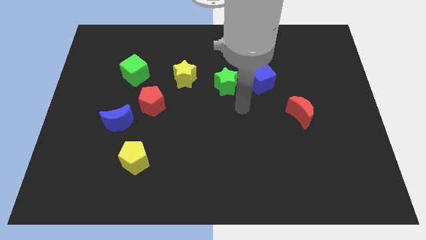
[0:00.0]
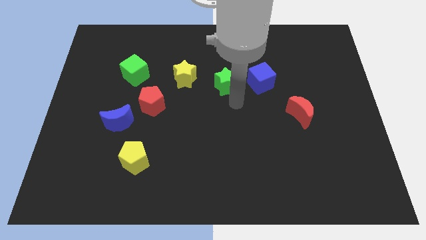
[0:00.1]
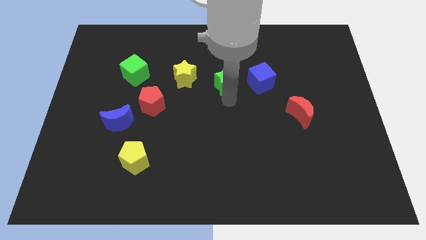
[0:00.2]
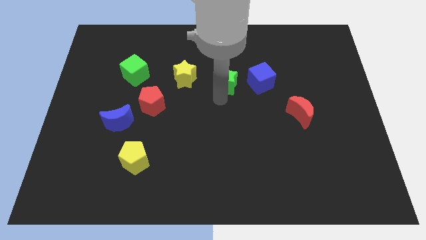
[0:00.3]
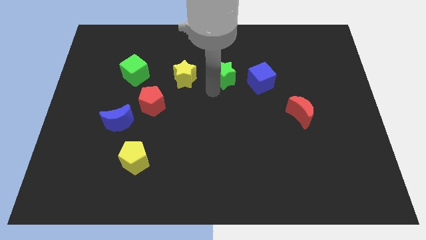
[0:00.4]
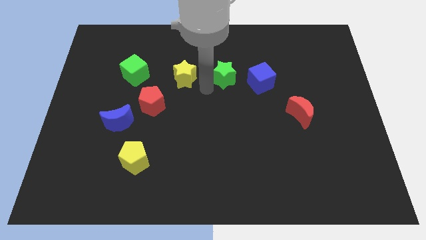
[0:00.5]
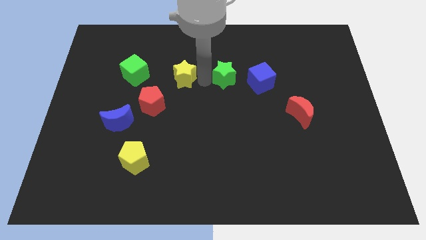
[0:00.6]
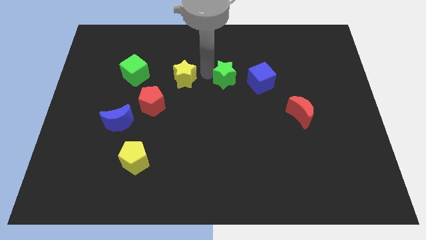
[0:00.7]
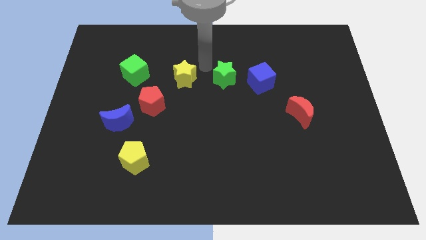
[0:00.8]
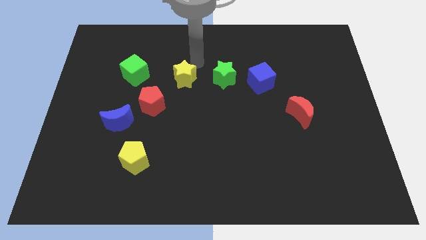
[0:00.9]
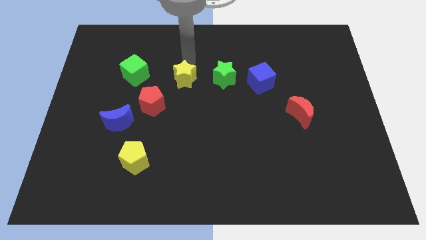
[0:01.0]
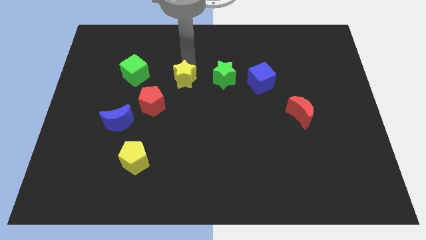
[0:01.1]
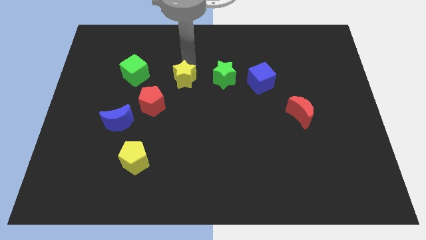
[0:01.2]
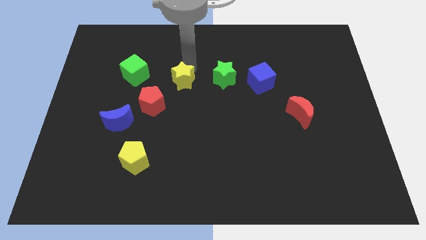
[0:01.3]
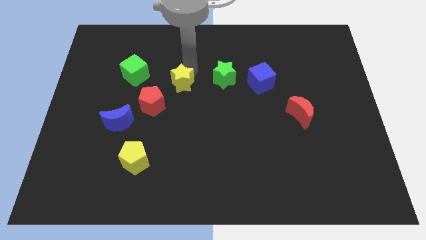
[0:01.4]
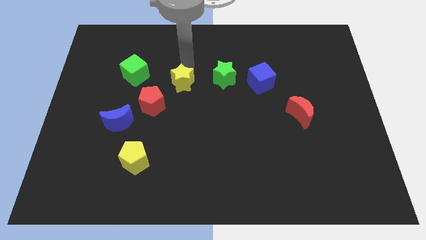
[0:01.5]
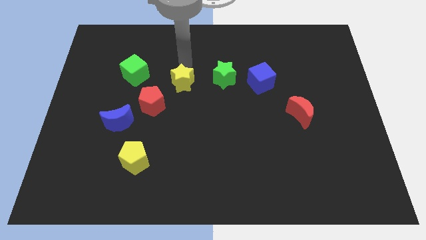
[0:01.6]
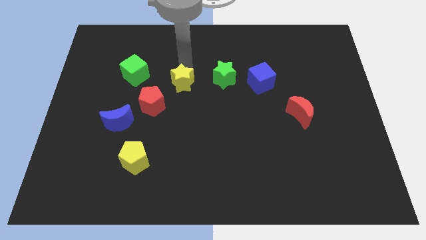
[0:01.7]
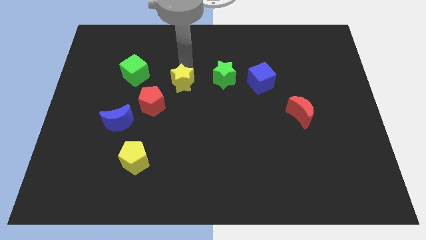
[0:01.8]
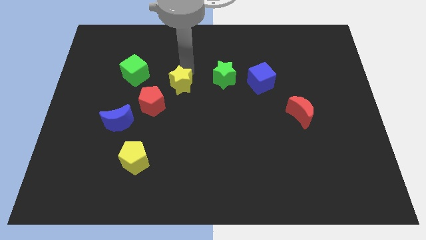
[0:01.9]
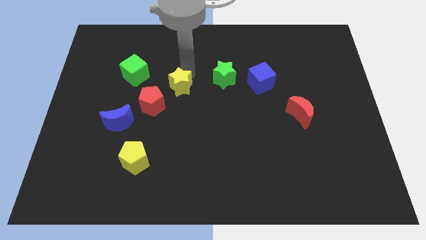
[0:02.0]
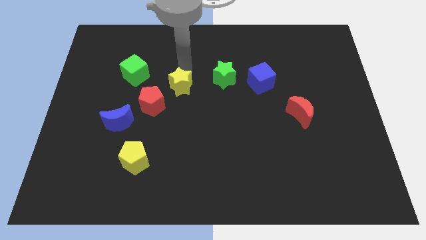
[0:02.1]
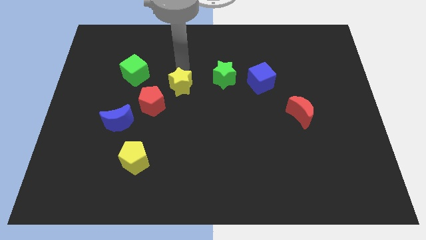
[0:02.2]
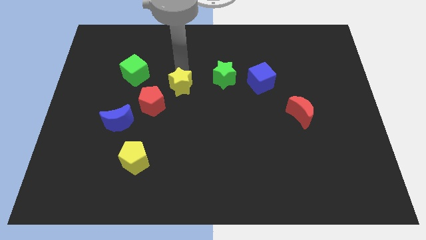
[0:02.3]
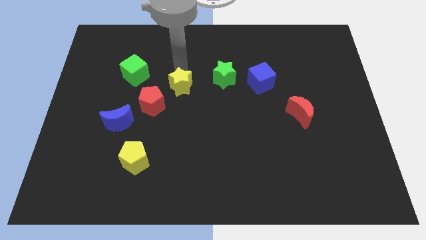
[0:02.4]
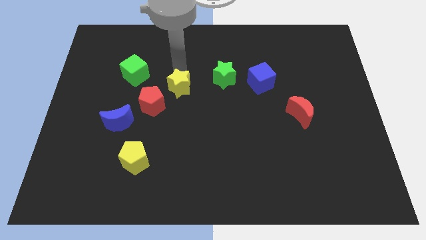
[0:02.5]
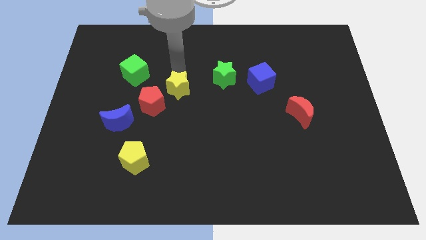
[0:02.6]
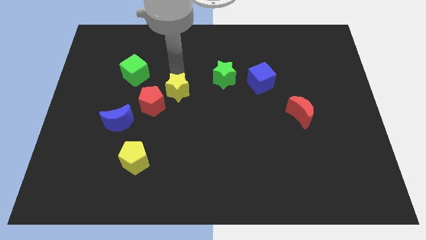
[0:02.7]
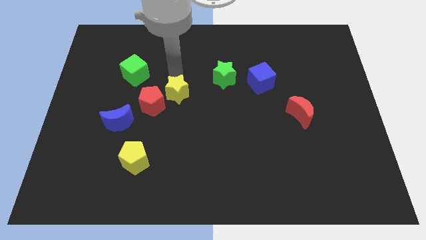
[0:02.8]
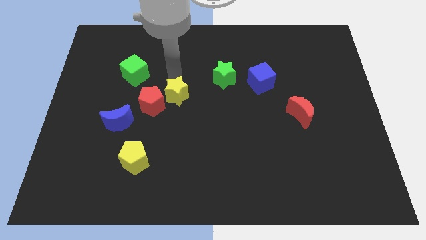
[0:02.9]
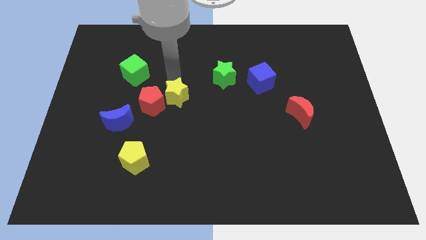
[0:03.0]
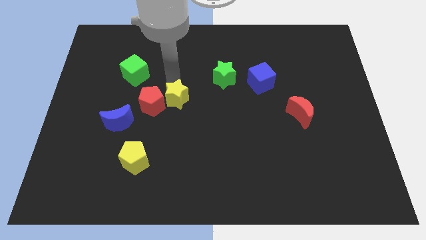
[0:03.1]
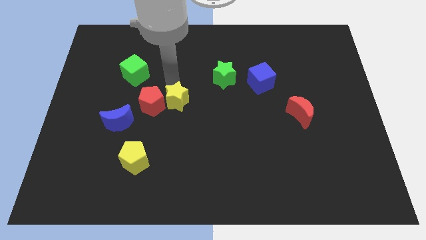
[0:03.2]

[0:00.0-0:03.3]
slightly slide the yellow star down

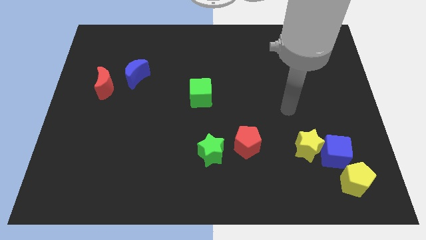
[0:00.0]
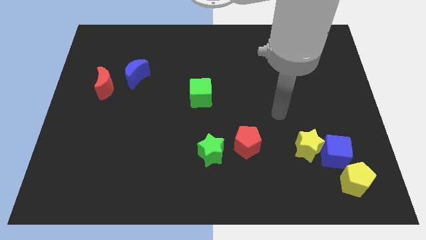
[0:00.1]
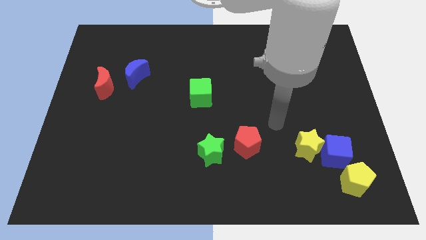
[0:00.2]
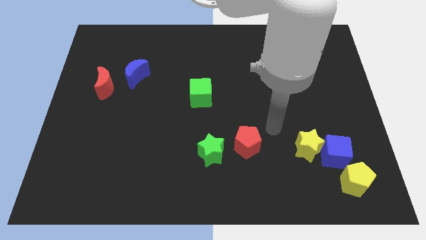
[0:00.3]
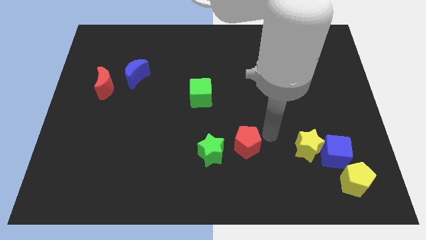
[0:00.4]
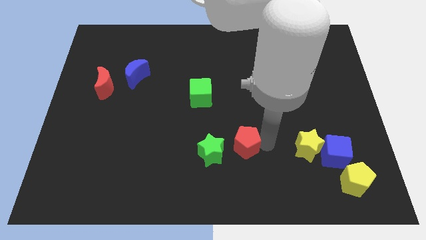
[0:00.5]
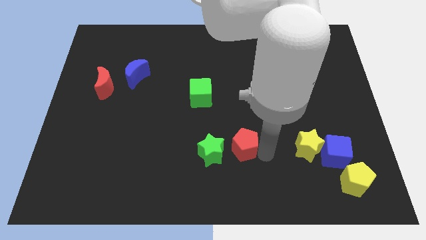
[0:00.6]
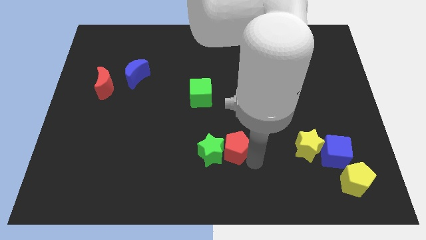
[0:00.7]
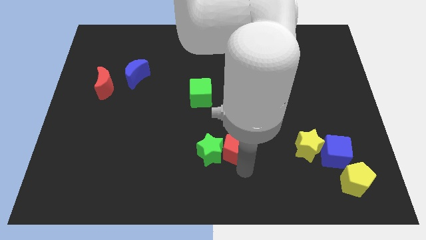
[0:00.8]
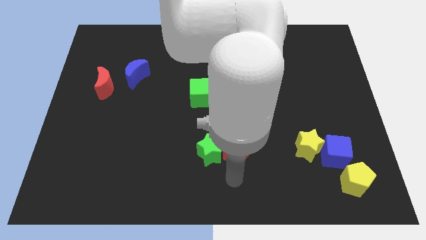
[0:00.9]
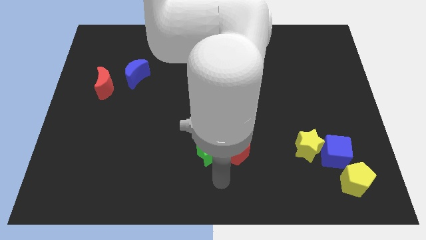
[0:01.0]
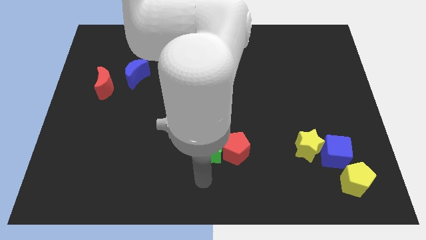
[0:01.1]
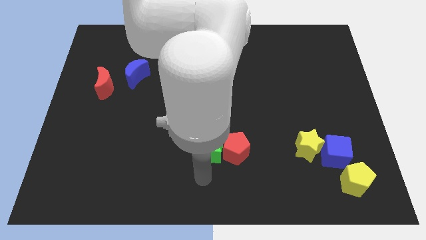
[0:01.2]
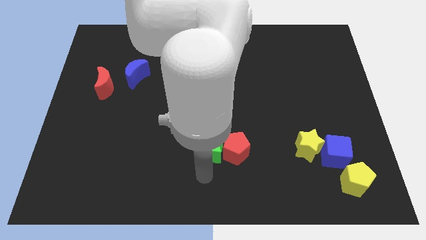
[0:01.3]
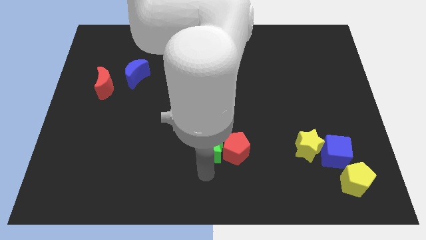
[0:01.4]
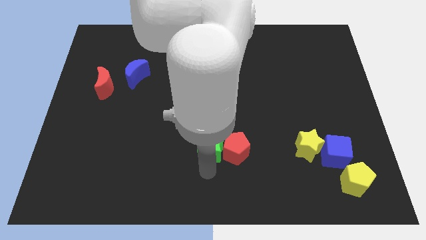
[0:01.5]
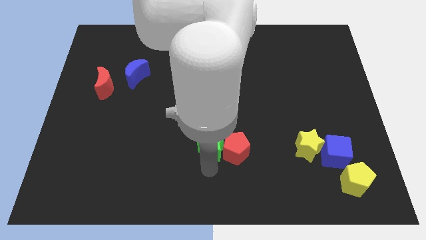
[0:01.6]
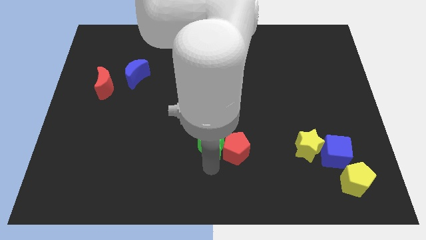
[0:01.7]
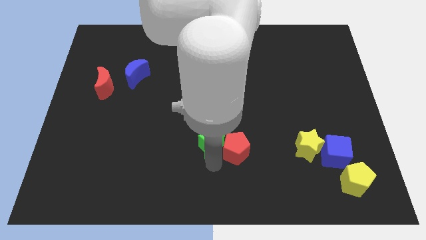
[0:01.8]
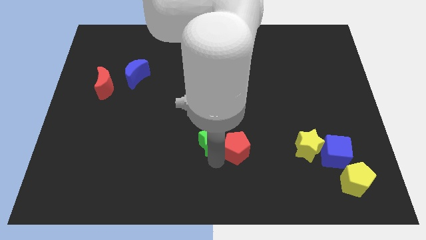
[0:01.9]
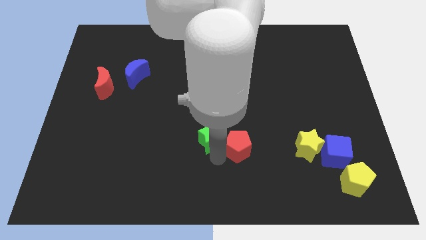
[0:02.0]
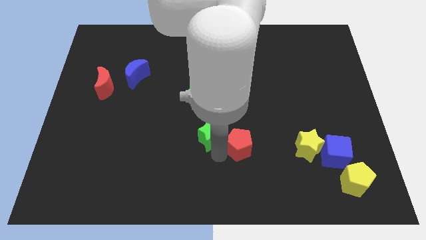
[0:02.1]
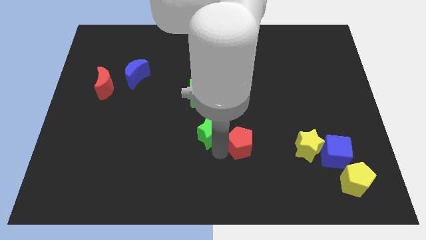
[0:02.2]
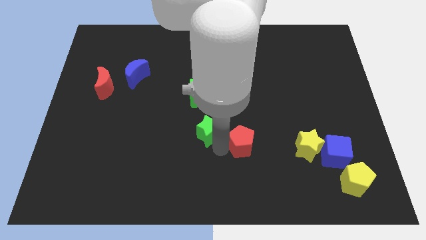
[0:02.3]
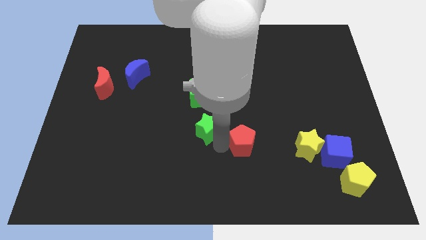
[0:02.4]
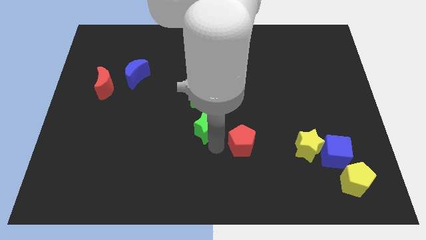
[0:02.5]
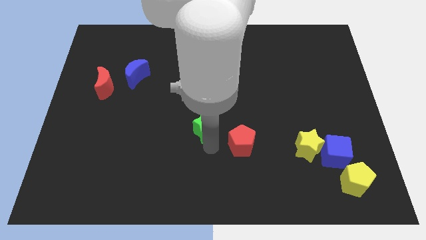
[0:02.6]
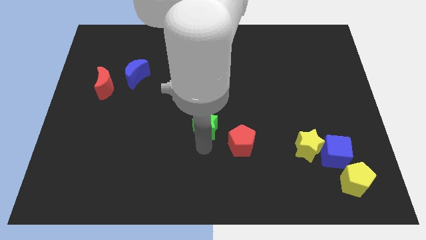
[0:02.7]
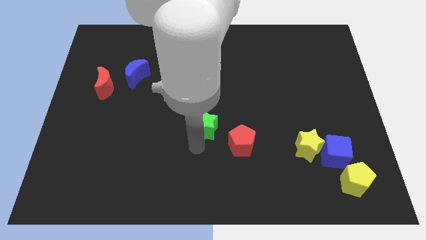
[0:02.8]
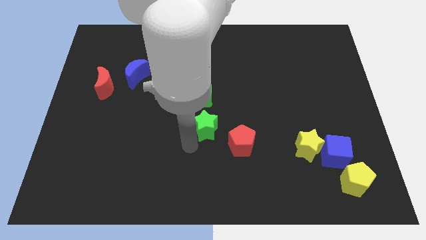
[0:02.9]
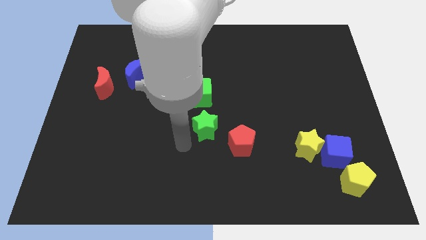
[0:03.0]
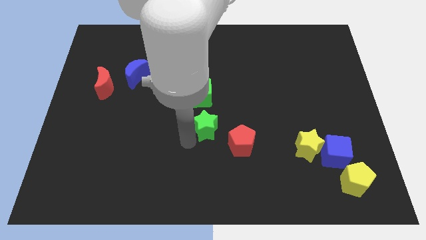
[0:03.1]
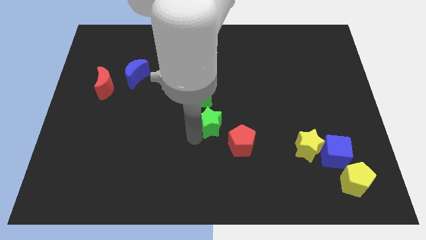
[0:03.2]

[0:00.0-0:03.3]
slightly slide the green star upwards

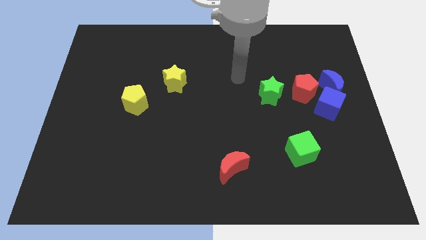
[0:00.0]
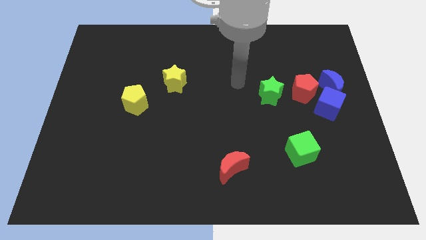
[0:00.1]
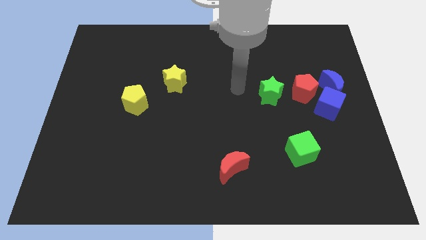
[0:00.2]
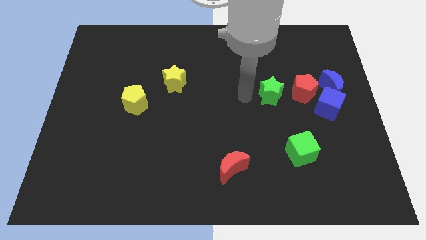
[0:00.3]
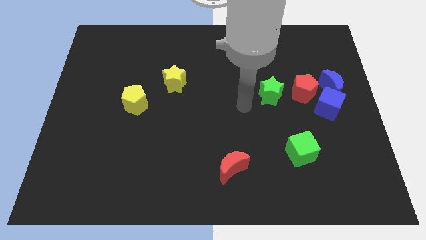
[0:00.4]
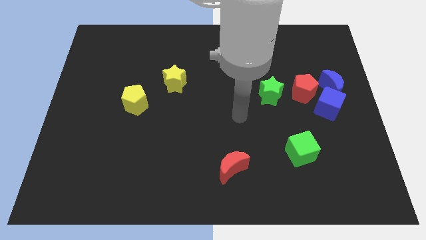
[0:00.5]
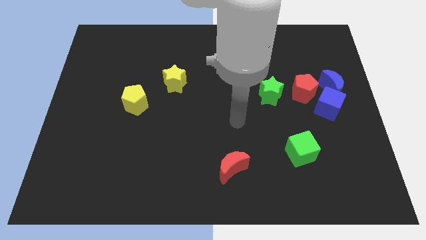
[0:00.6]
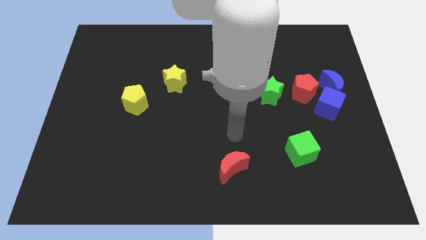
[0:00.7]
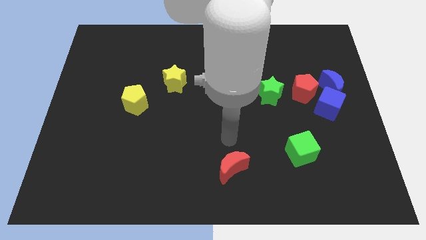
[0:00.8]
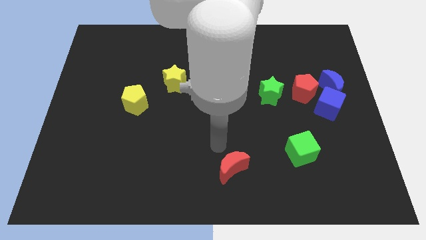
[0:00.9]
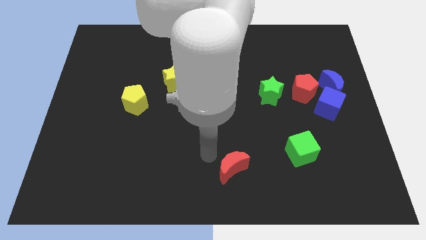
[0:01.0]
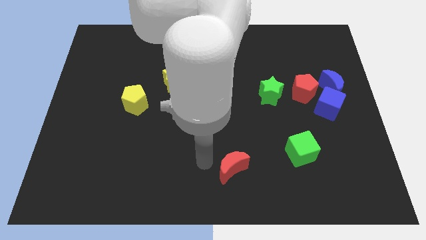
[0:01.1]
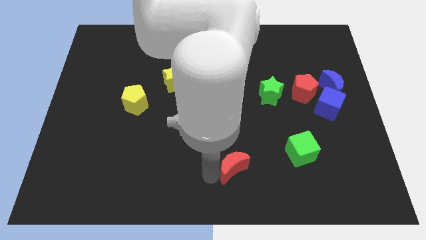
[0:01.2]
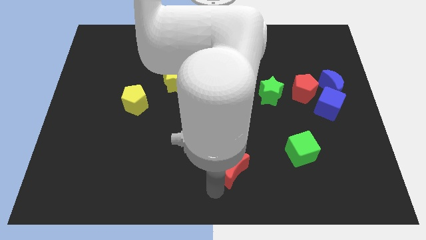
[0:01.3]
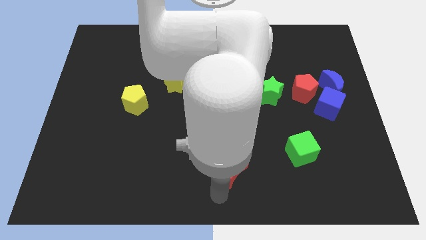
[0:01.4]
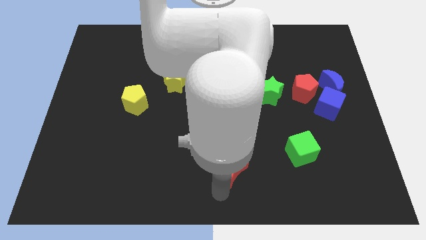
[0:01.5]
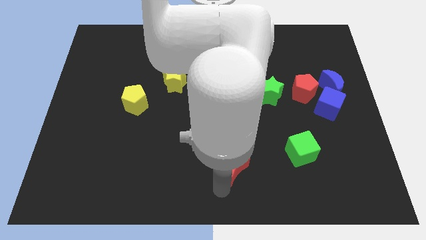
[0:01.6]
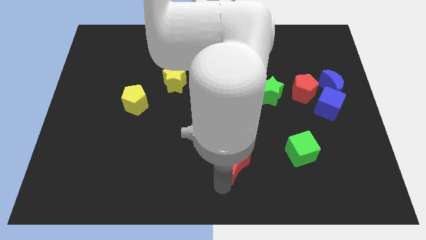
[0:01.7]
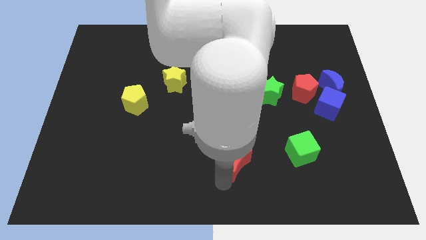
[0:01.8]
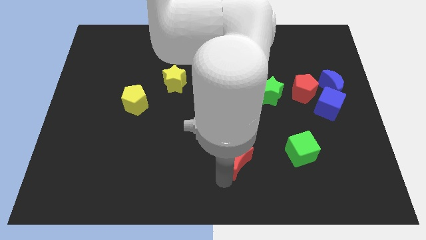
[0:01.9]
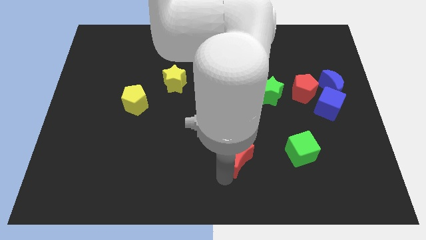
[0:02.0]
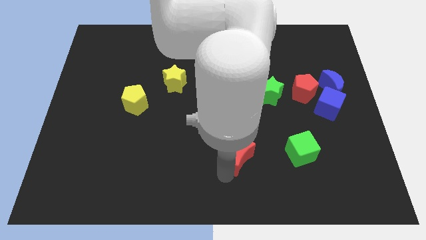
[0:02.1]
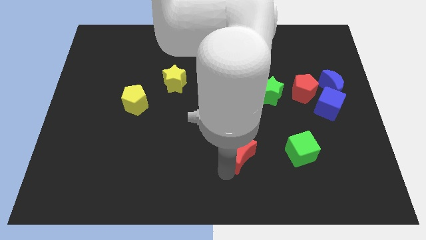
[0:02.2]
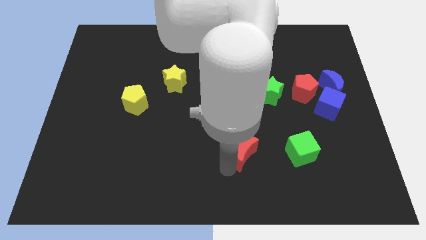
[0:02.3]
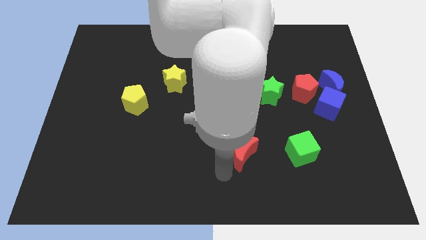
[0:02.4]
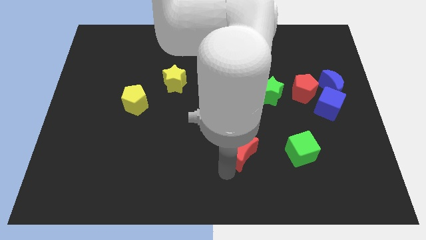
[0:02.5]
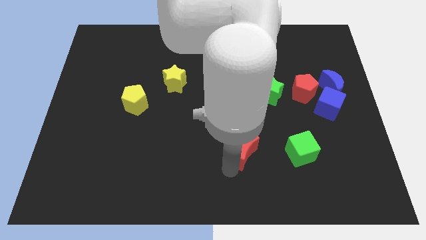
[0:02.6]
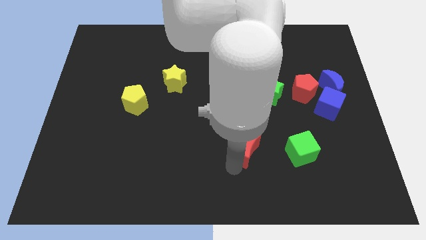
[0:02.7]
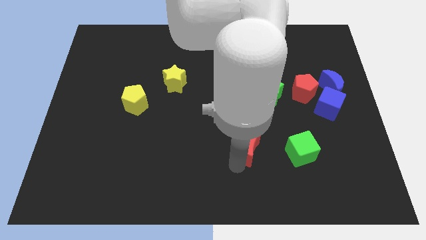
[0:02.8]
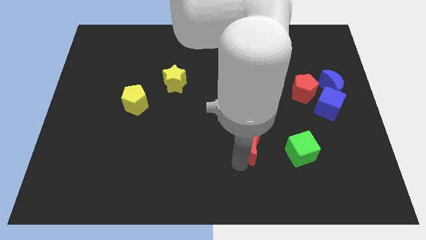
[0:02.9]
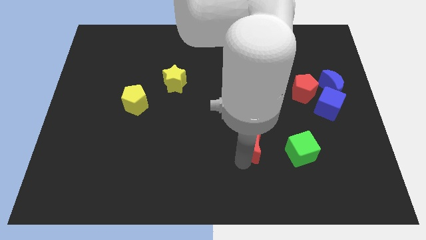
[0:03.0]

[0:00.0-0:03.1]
slide the red moon a bit upwards and to the right
